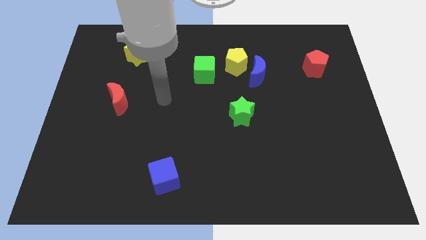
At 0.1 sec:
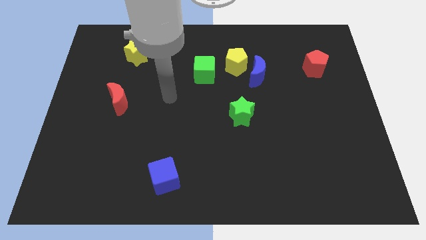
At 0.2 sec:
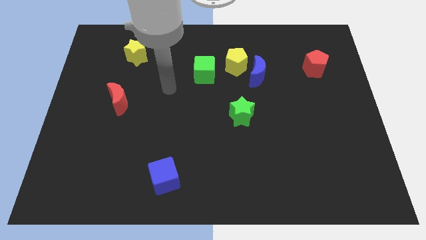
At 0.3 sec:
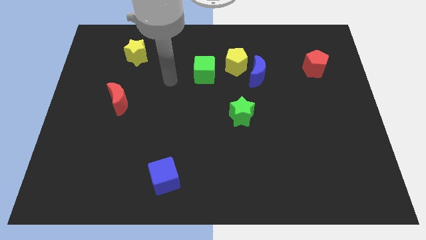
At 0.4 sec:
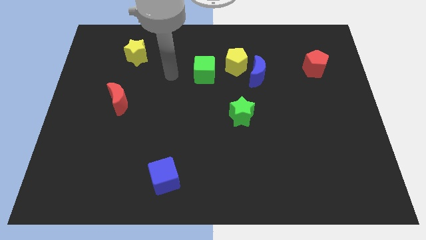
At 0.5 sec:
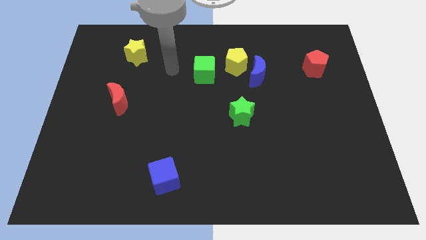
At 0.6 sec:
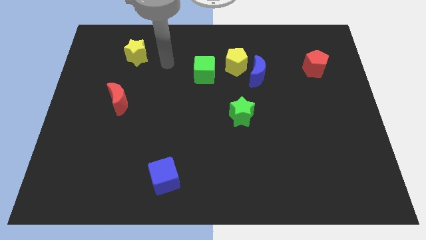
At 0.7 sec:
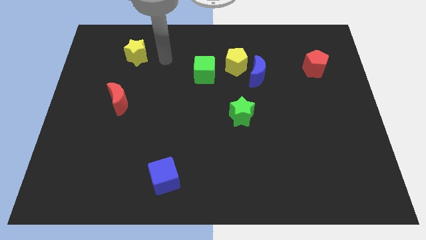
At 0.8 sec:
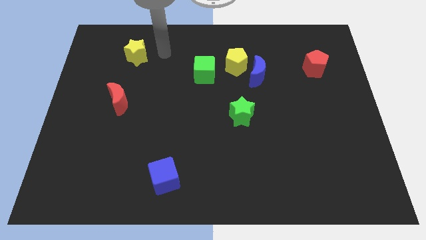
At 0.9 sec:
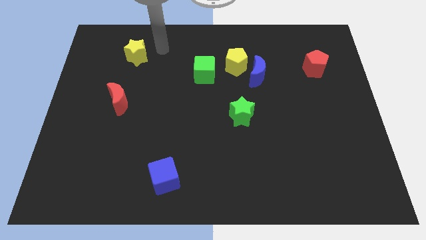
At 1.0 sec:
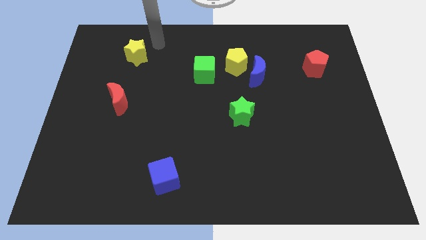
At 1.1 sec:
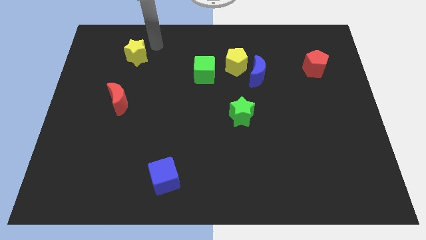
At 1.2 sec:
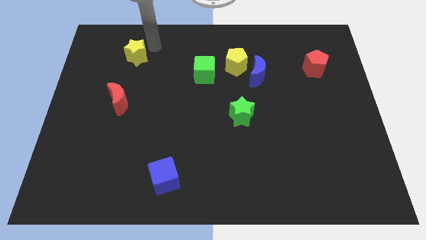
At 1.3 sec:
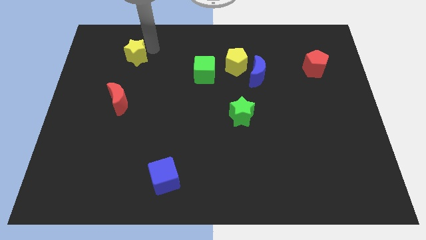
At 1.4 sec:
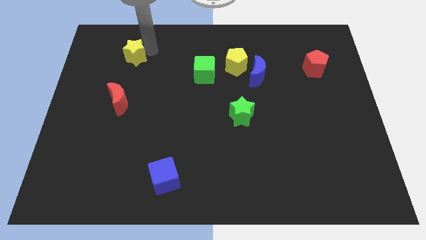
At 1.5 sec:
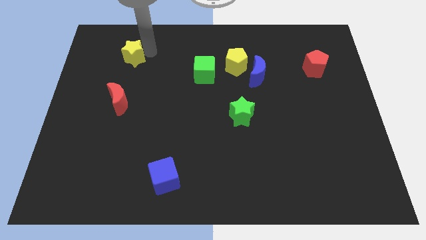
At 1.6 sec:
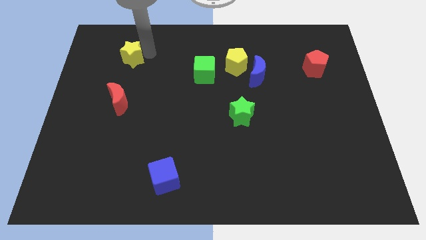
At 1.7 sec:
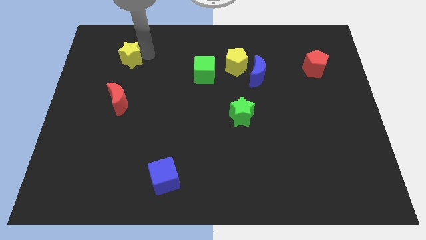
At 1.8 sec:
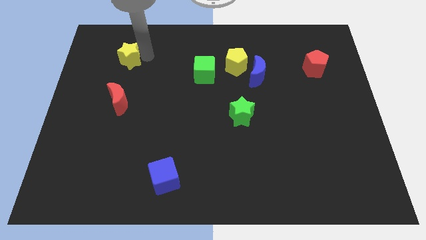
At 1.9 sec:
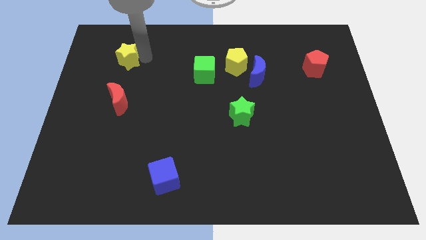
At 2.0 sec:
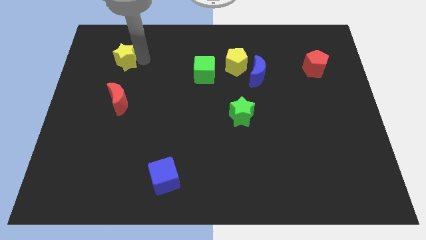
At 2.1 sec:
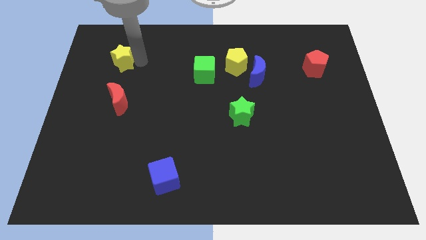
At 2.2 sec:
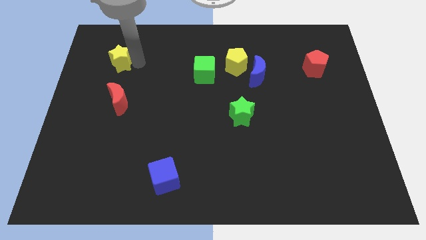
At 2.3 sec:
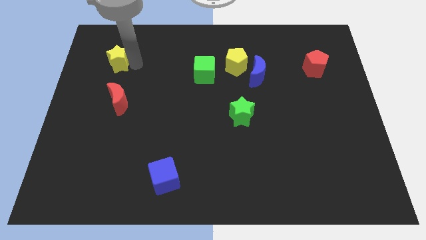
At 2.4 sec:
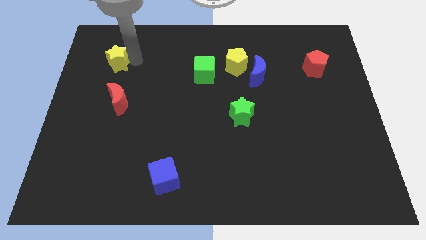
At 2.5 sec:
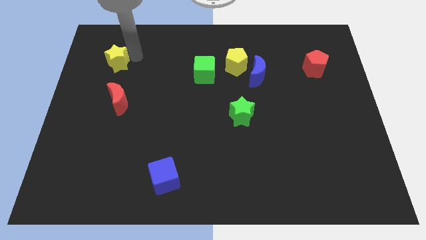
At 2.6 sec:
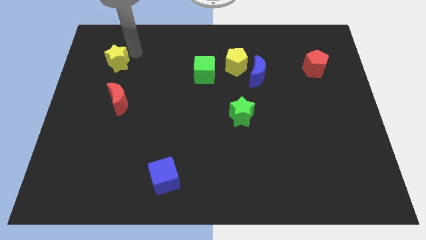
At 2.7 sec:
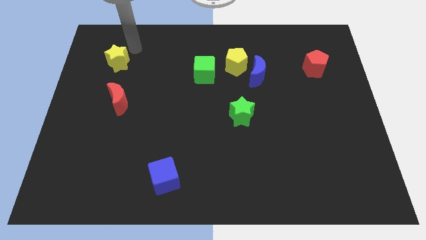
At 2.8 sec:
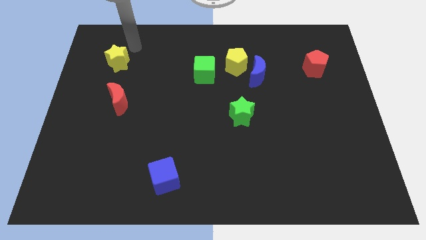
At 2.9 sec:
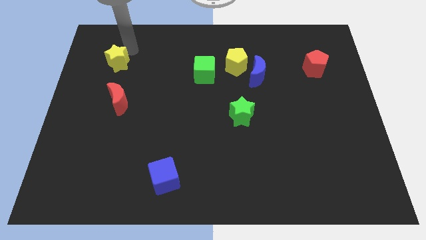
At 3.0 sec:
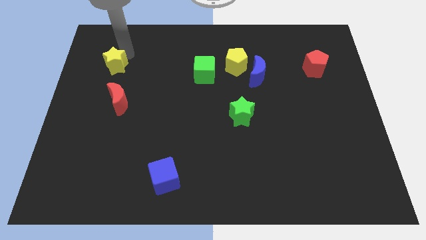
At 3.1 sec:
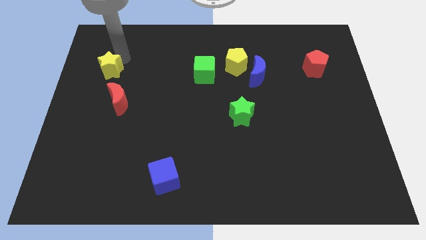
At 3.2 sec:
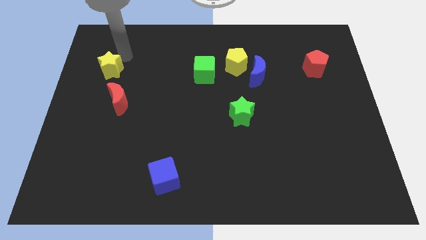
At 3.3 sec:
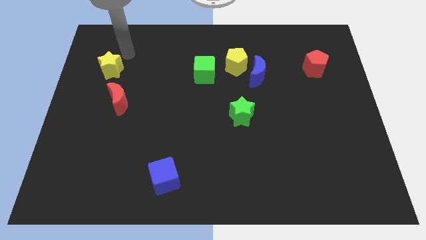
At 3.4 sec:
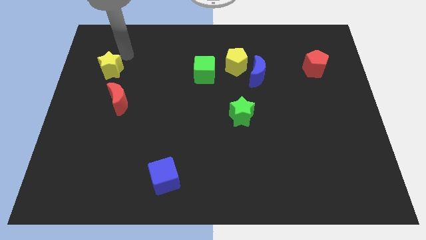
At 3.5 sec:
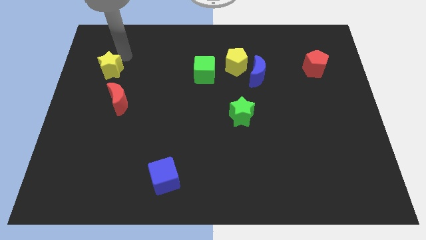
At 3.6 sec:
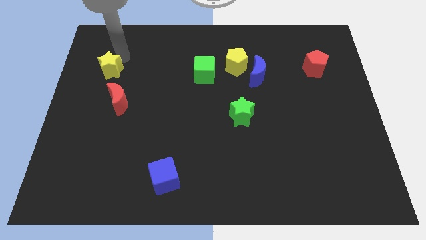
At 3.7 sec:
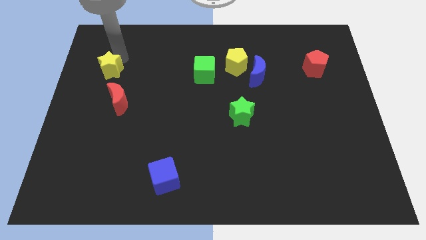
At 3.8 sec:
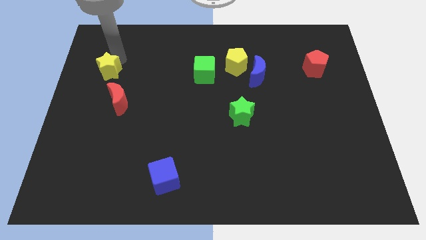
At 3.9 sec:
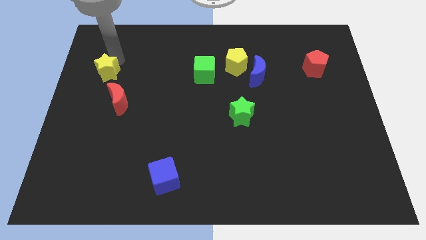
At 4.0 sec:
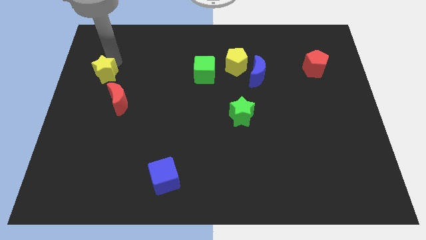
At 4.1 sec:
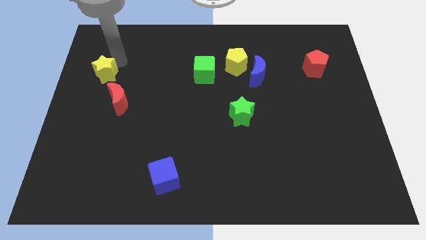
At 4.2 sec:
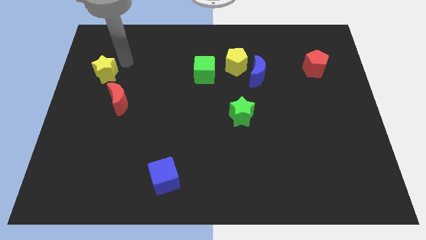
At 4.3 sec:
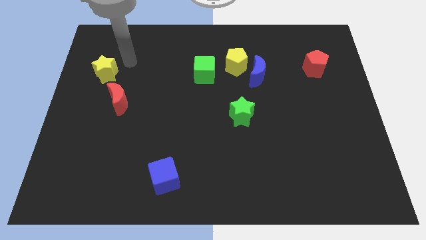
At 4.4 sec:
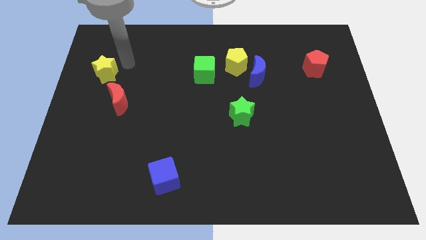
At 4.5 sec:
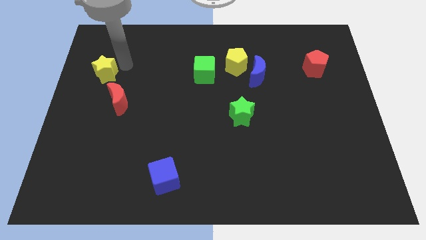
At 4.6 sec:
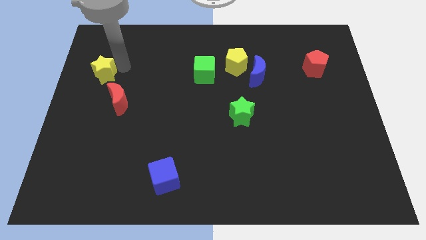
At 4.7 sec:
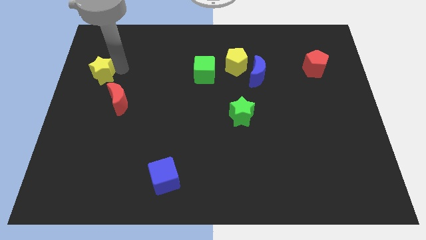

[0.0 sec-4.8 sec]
slide the yellow star to the left side of the board

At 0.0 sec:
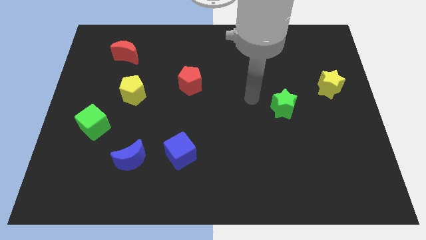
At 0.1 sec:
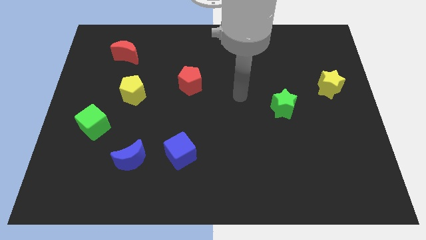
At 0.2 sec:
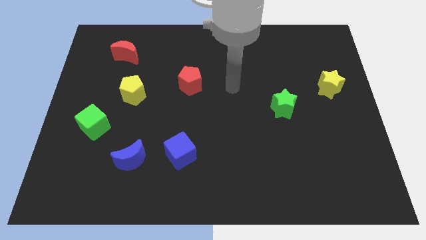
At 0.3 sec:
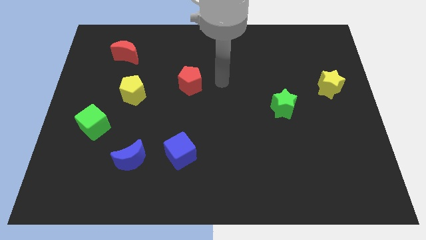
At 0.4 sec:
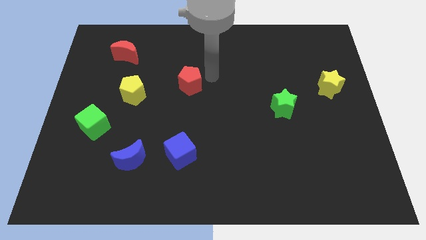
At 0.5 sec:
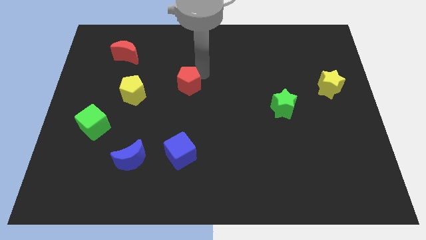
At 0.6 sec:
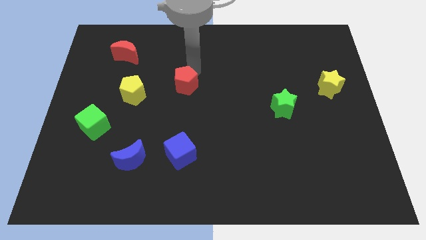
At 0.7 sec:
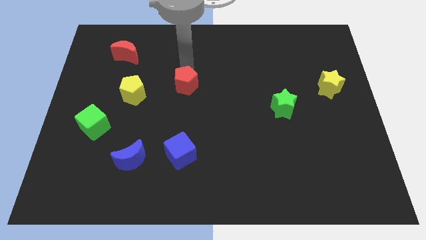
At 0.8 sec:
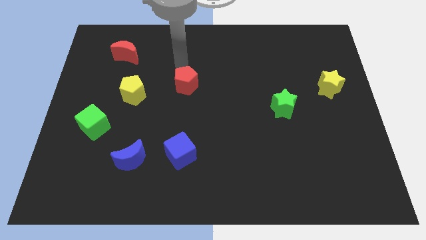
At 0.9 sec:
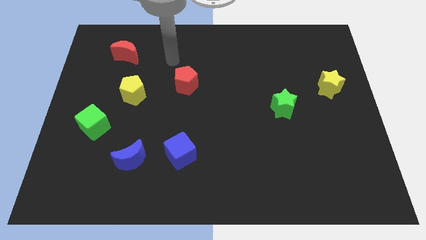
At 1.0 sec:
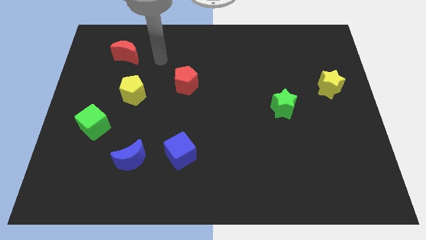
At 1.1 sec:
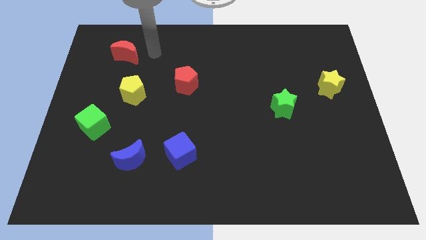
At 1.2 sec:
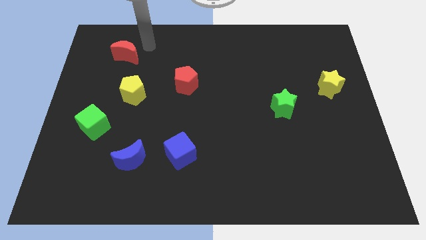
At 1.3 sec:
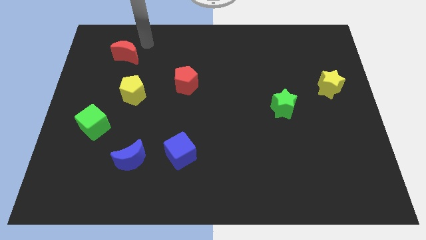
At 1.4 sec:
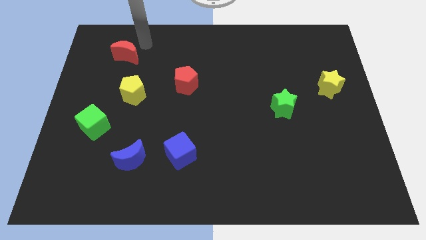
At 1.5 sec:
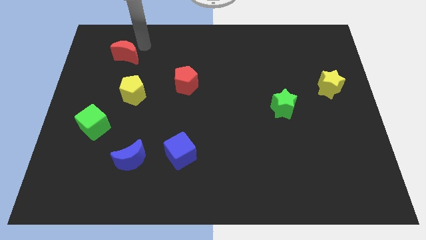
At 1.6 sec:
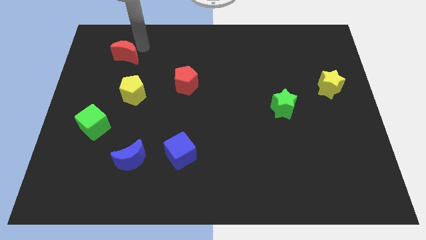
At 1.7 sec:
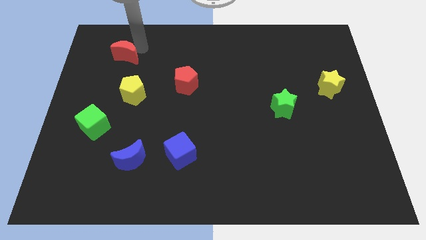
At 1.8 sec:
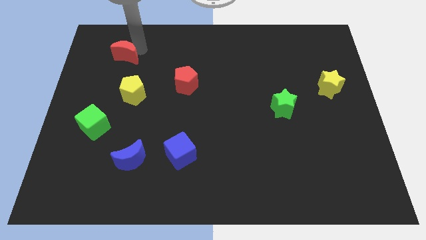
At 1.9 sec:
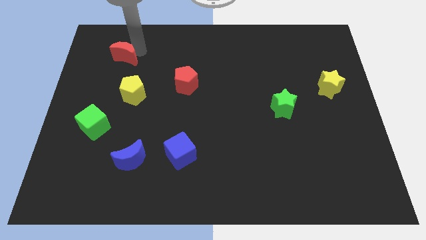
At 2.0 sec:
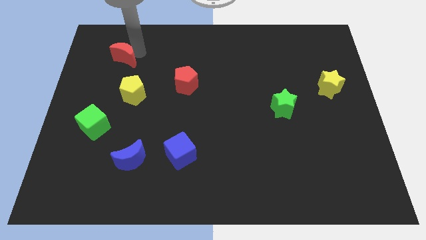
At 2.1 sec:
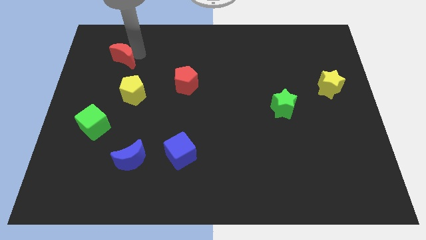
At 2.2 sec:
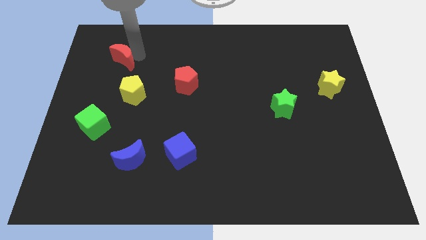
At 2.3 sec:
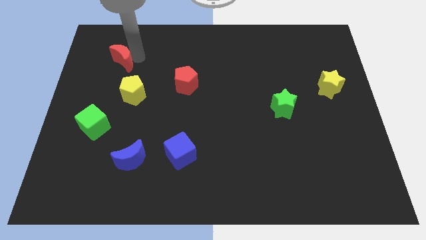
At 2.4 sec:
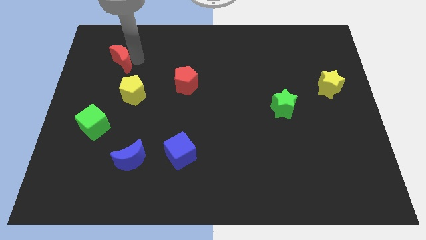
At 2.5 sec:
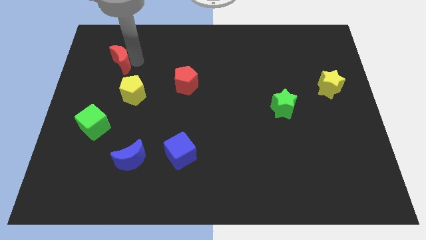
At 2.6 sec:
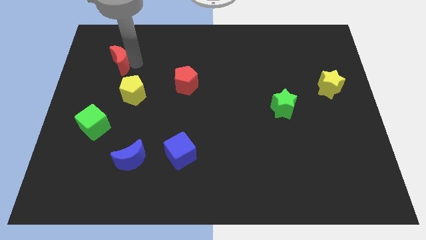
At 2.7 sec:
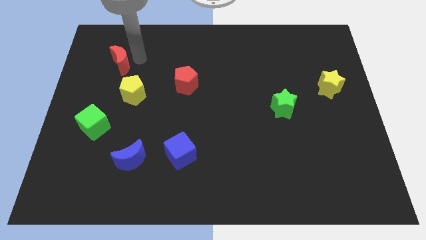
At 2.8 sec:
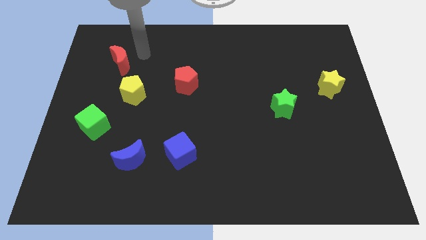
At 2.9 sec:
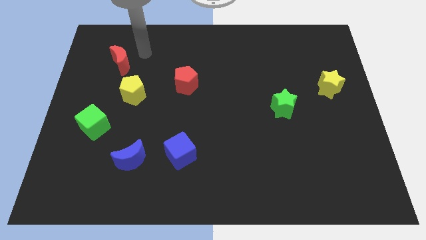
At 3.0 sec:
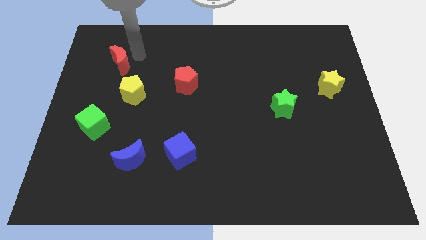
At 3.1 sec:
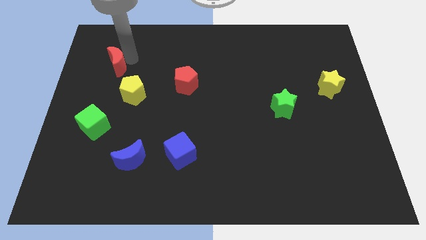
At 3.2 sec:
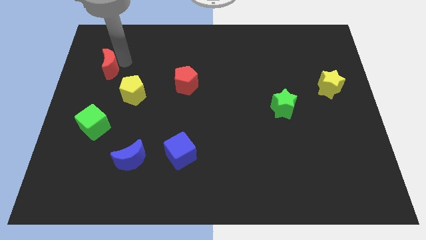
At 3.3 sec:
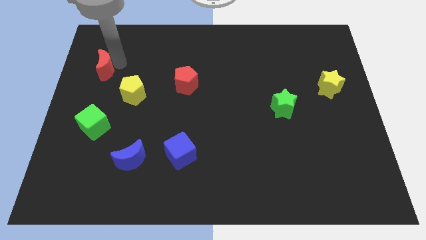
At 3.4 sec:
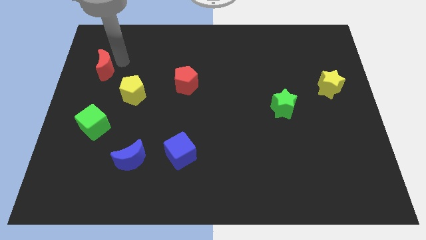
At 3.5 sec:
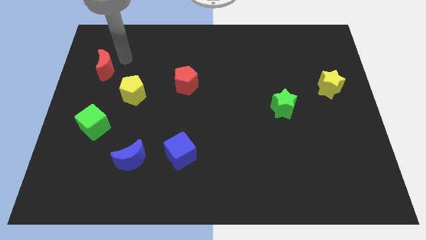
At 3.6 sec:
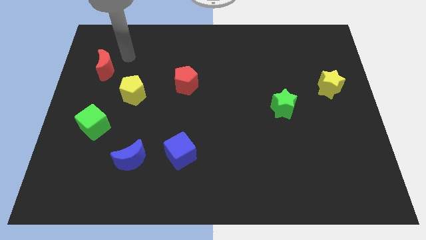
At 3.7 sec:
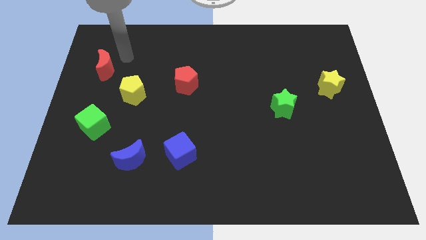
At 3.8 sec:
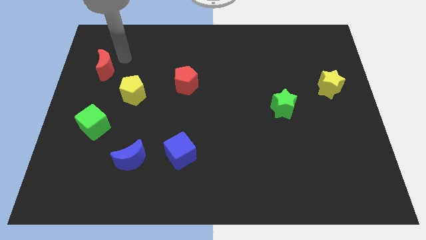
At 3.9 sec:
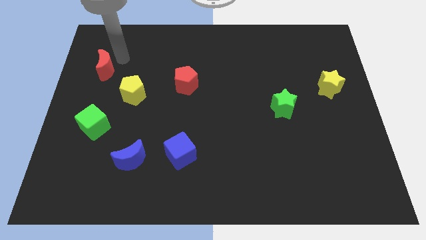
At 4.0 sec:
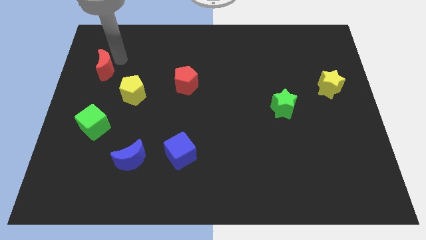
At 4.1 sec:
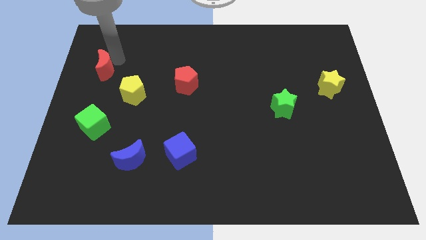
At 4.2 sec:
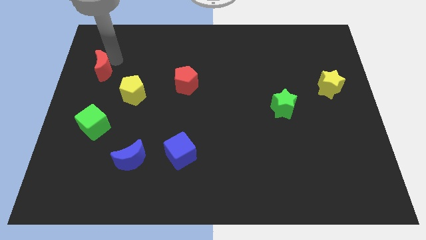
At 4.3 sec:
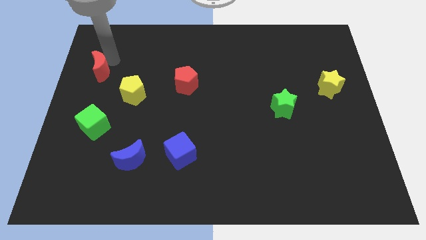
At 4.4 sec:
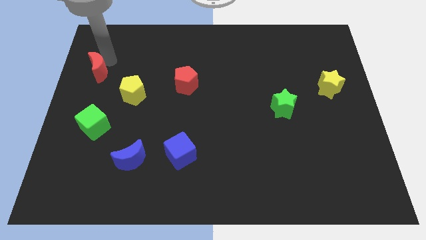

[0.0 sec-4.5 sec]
move the red moon to the left side of the board
